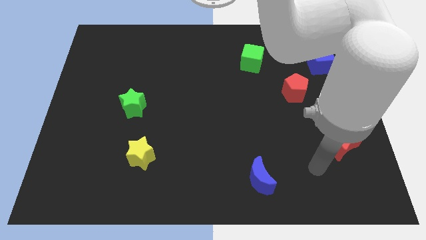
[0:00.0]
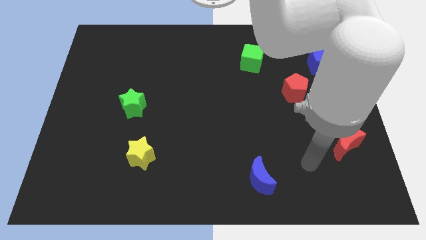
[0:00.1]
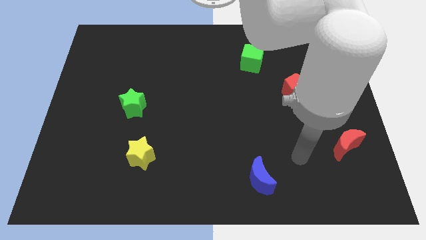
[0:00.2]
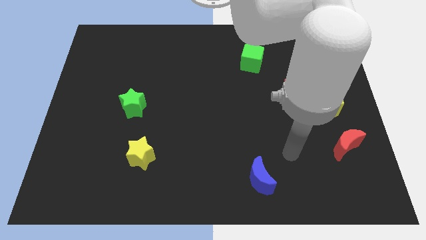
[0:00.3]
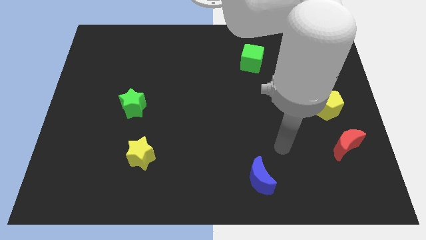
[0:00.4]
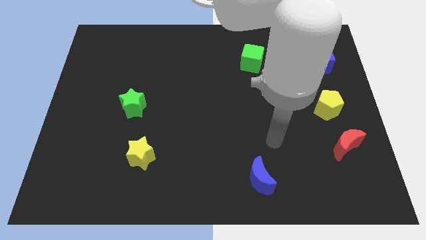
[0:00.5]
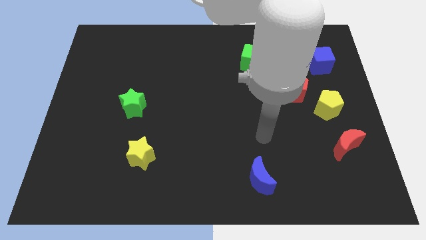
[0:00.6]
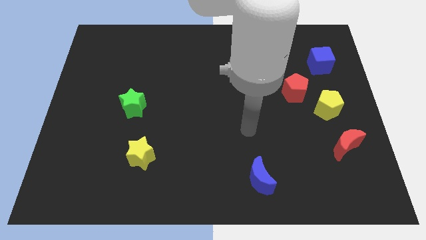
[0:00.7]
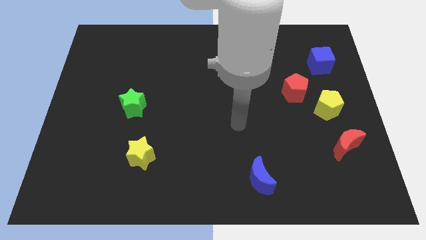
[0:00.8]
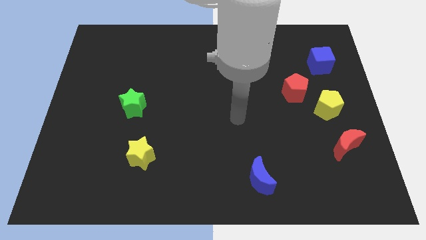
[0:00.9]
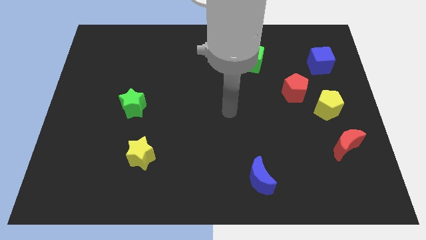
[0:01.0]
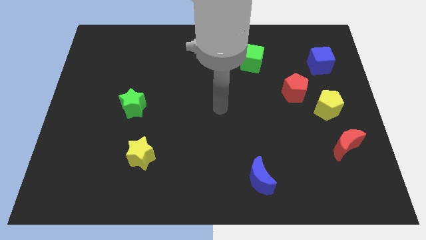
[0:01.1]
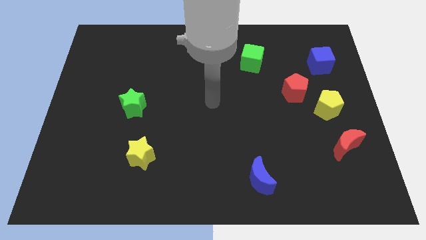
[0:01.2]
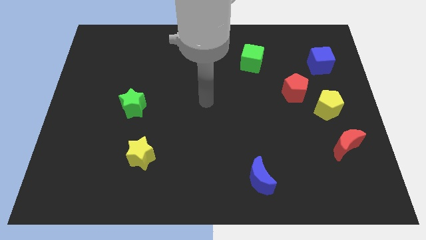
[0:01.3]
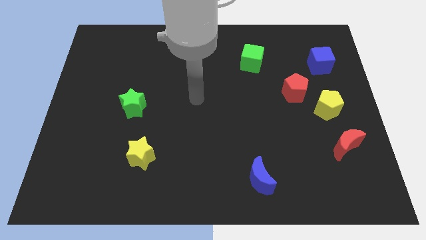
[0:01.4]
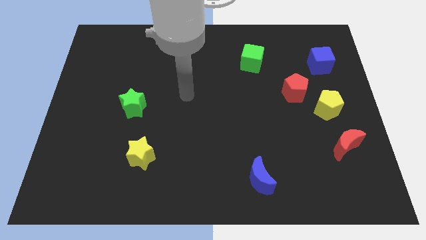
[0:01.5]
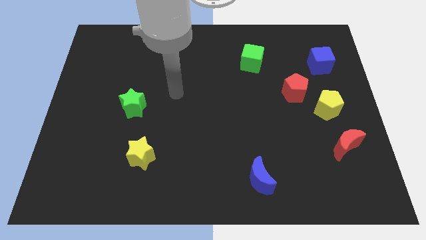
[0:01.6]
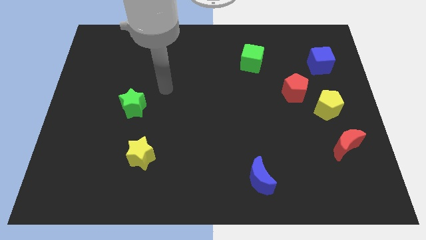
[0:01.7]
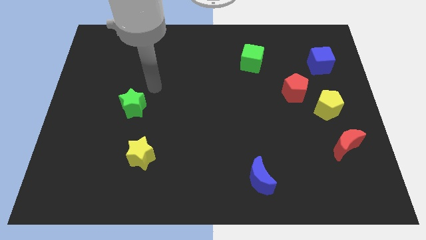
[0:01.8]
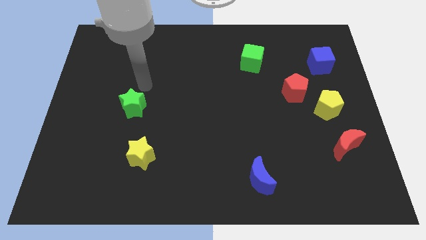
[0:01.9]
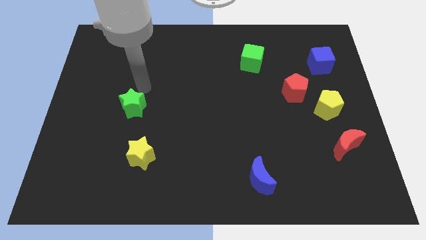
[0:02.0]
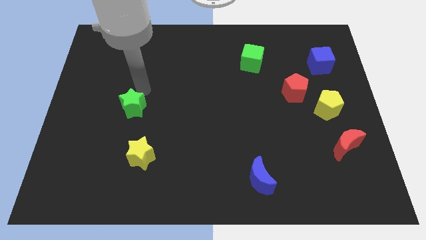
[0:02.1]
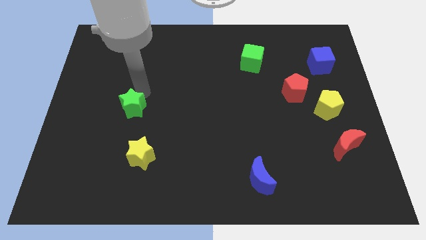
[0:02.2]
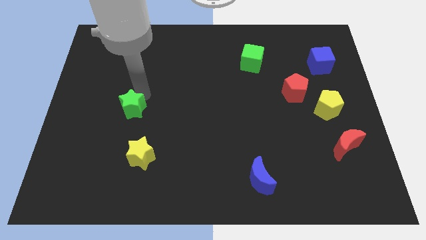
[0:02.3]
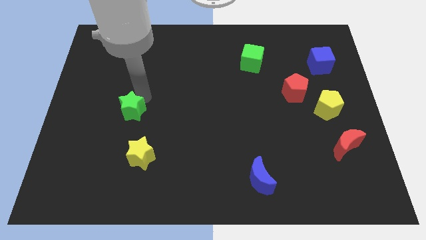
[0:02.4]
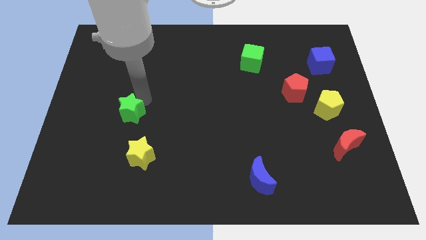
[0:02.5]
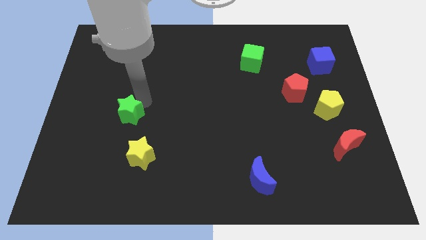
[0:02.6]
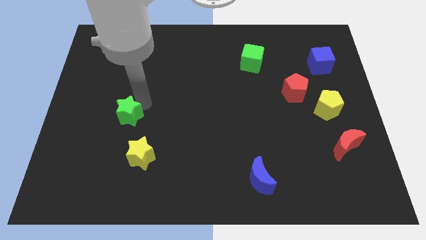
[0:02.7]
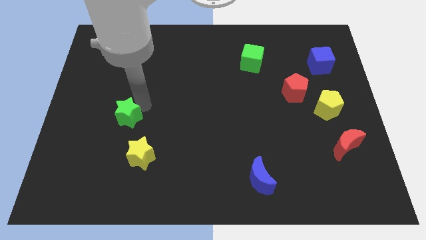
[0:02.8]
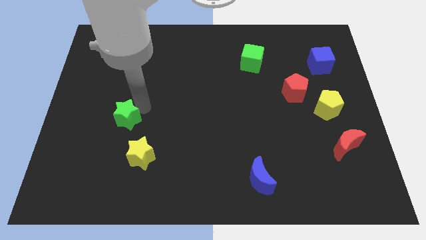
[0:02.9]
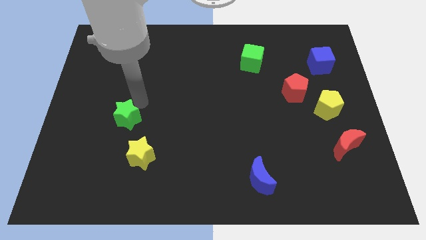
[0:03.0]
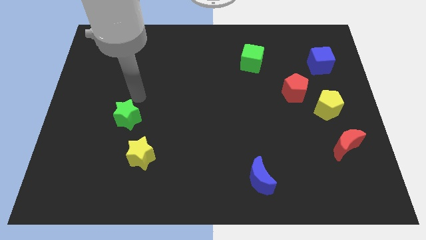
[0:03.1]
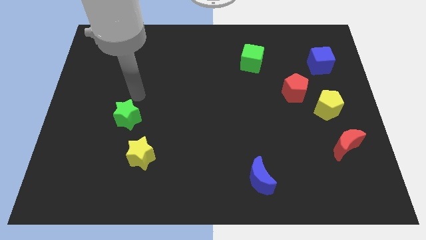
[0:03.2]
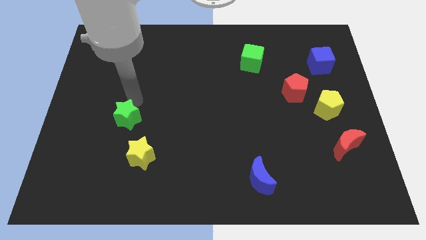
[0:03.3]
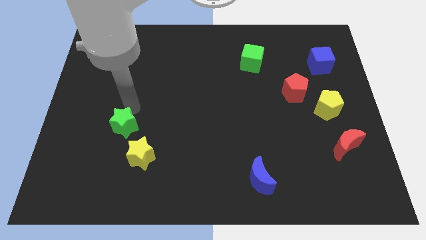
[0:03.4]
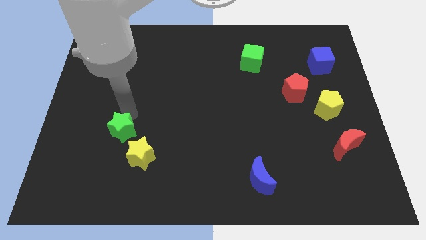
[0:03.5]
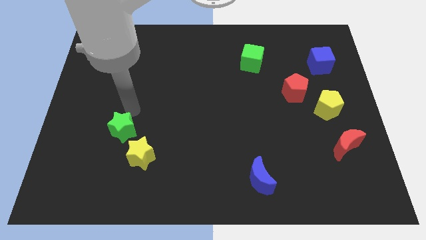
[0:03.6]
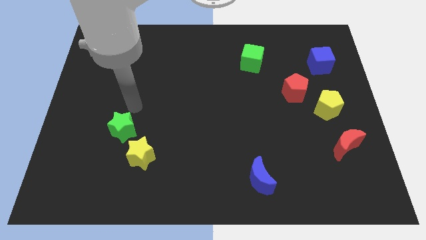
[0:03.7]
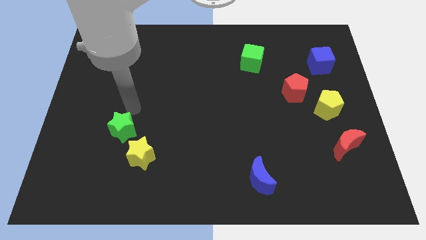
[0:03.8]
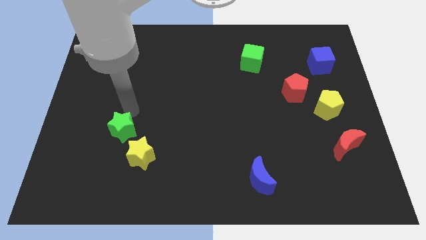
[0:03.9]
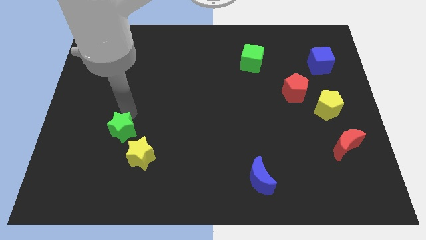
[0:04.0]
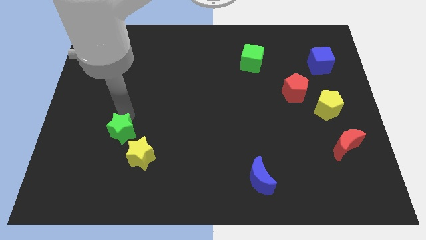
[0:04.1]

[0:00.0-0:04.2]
slightly move the green star down

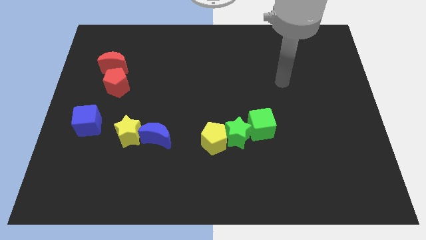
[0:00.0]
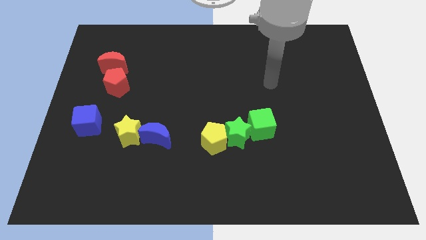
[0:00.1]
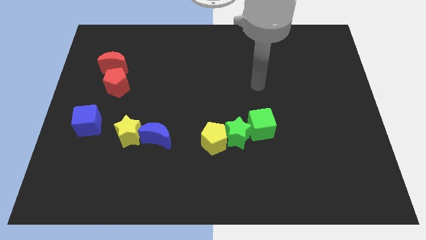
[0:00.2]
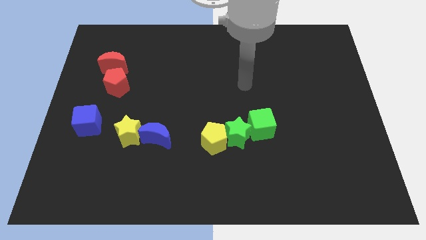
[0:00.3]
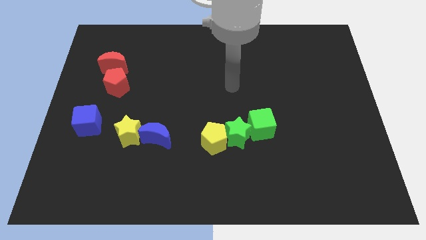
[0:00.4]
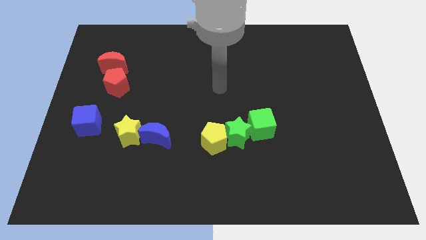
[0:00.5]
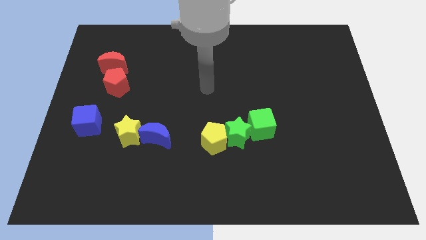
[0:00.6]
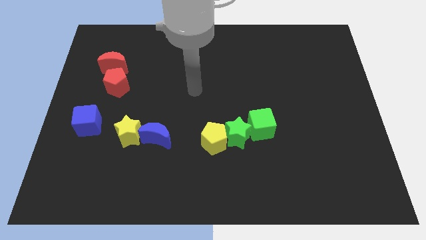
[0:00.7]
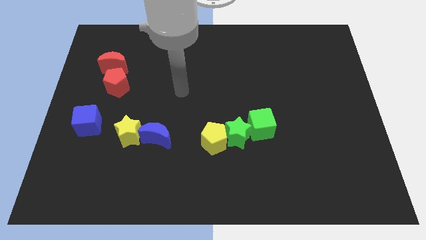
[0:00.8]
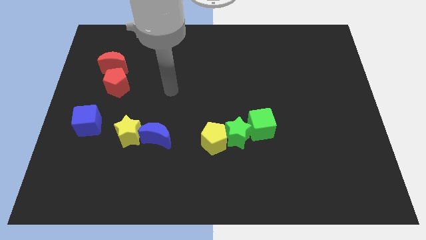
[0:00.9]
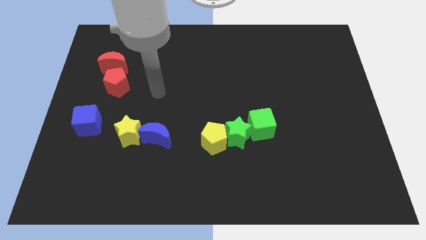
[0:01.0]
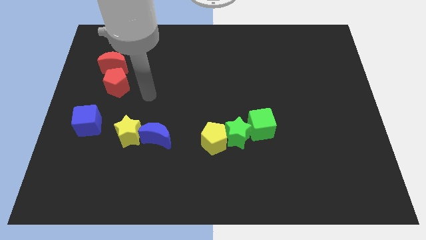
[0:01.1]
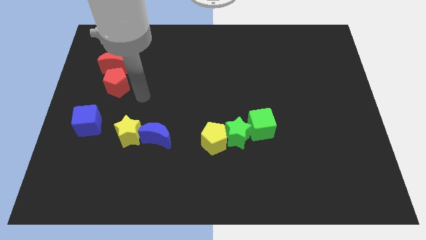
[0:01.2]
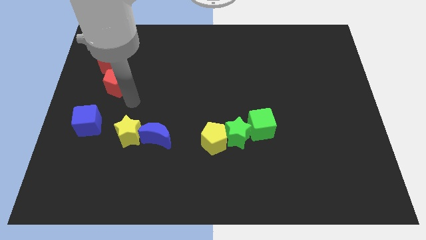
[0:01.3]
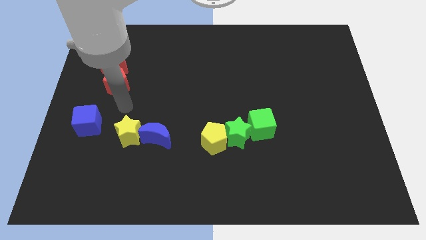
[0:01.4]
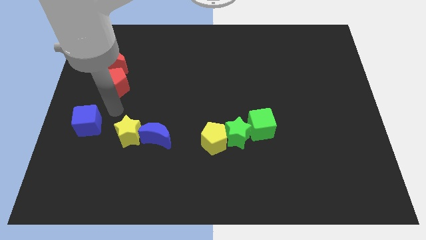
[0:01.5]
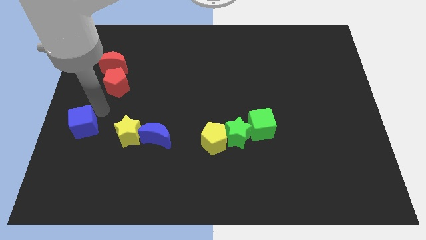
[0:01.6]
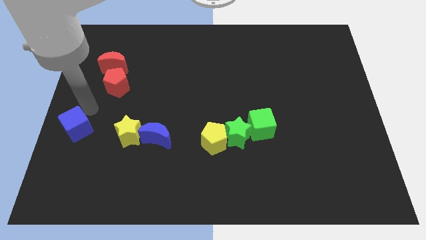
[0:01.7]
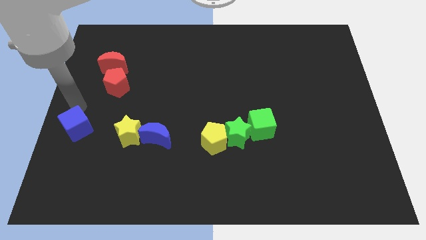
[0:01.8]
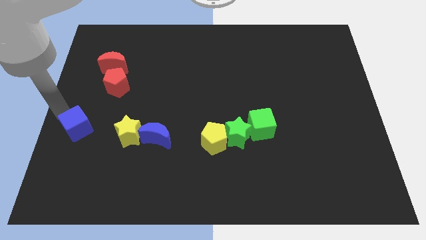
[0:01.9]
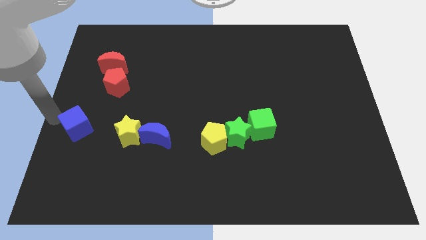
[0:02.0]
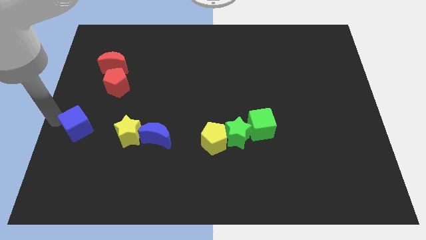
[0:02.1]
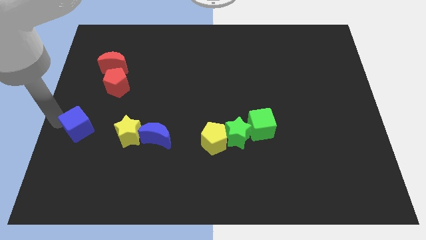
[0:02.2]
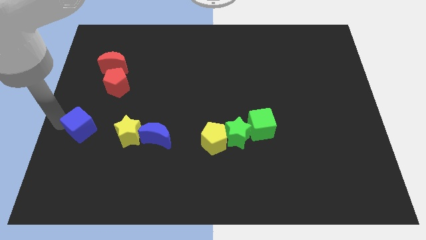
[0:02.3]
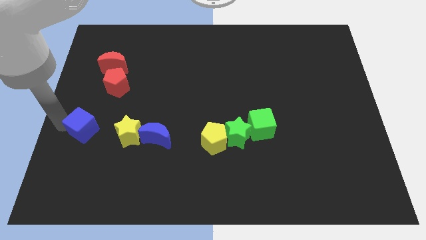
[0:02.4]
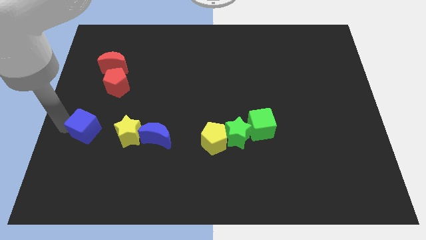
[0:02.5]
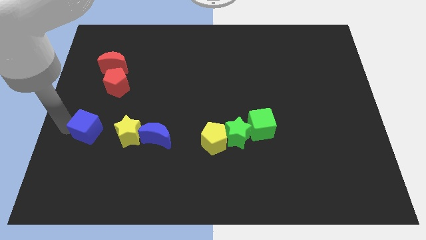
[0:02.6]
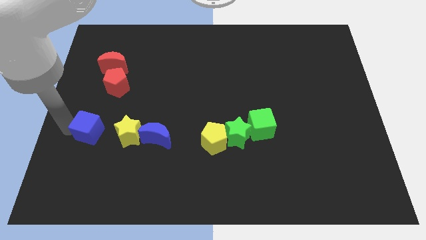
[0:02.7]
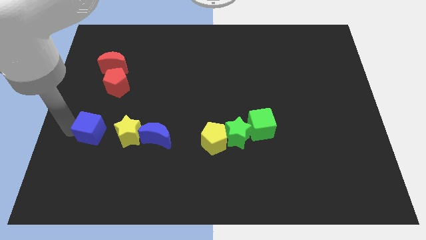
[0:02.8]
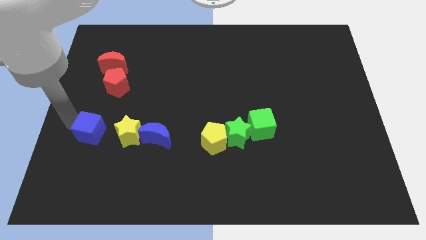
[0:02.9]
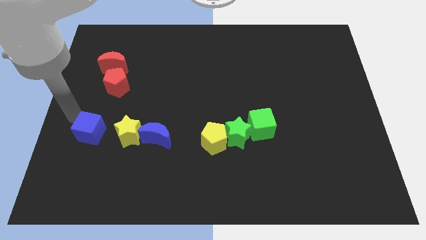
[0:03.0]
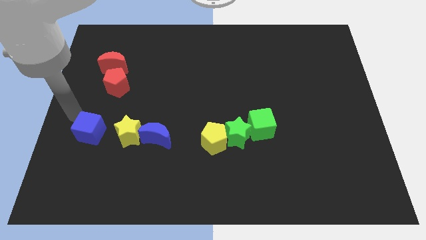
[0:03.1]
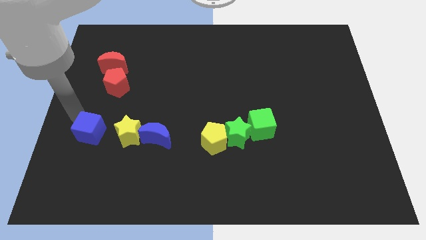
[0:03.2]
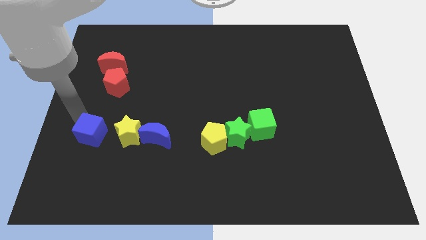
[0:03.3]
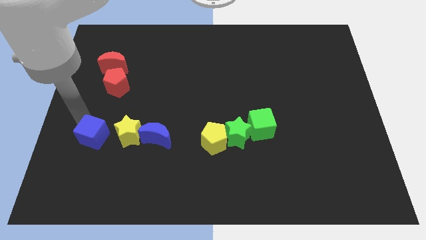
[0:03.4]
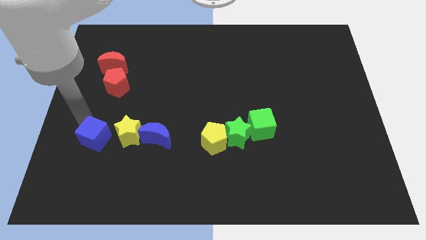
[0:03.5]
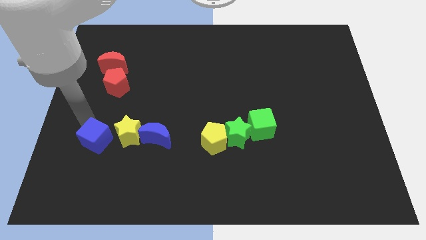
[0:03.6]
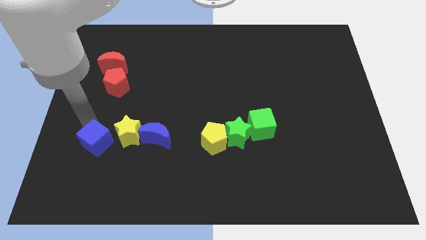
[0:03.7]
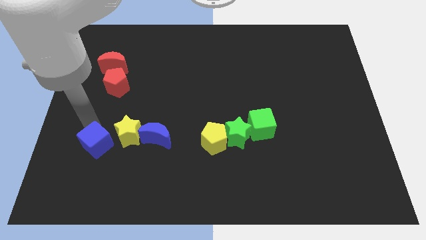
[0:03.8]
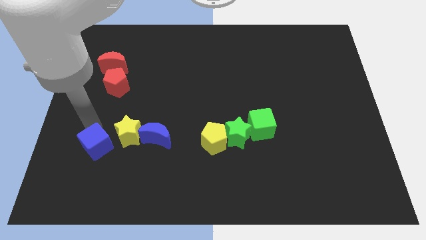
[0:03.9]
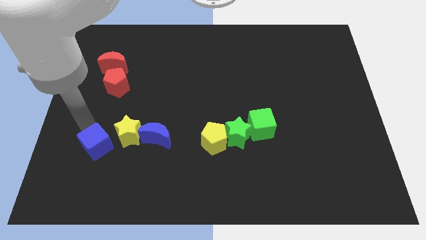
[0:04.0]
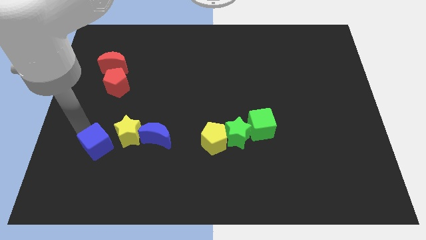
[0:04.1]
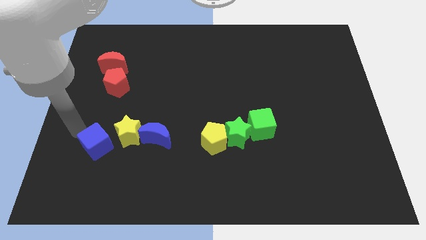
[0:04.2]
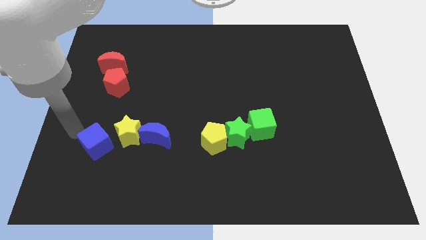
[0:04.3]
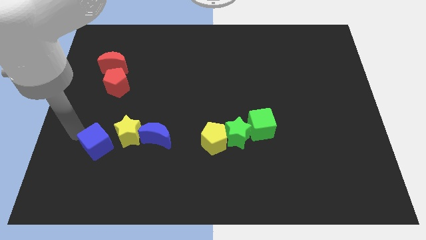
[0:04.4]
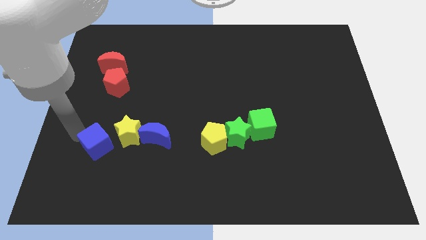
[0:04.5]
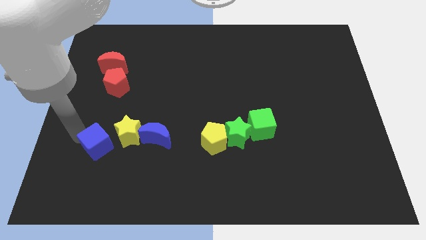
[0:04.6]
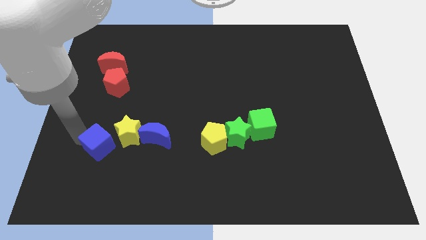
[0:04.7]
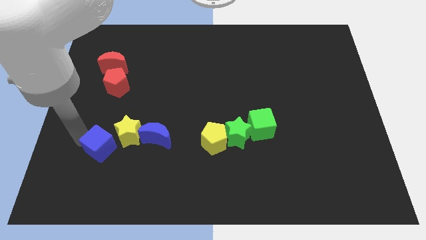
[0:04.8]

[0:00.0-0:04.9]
move the blue cube down and then to the right a little
